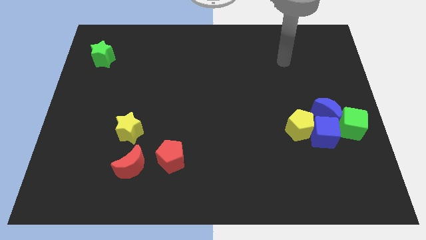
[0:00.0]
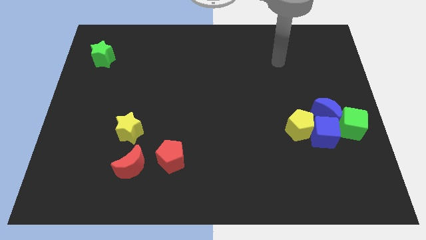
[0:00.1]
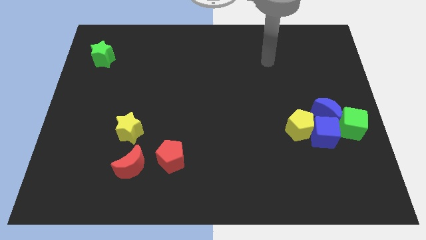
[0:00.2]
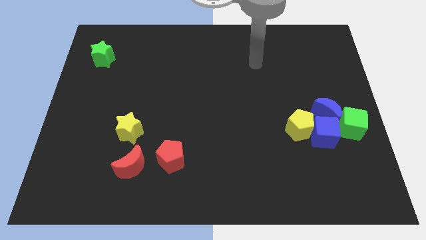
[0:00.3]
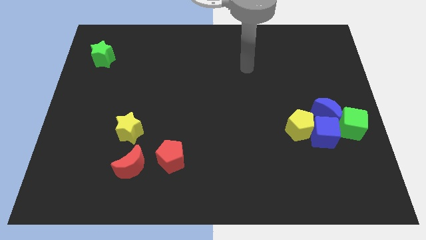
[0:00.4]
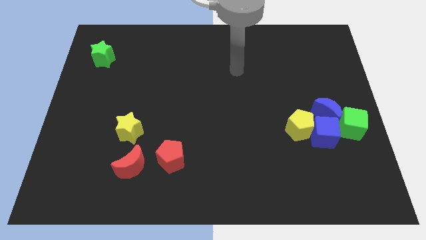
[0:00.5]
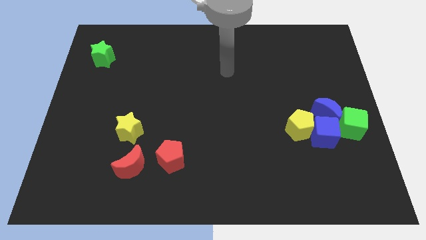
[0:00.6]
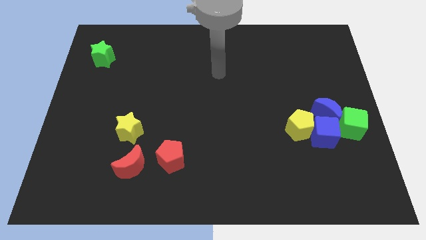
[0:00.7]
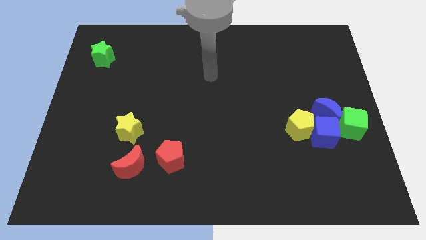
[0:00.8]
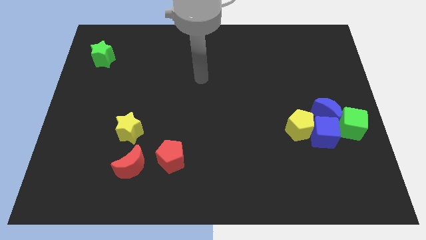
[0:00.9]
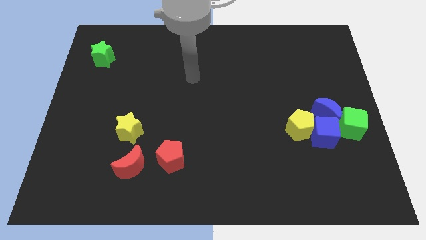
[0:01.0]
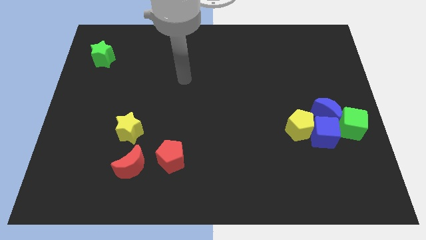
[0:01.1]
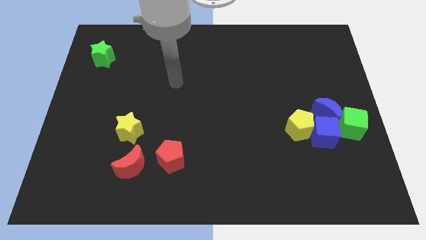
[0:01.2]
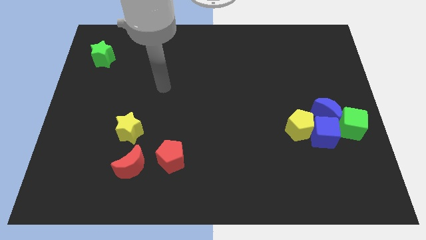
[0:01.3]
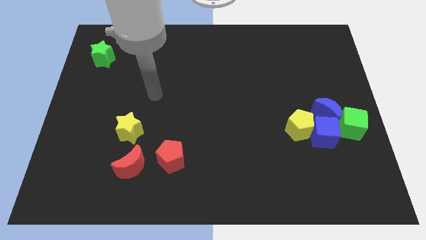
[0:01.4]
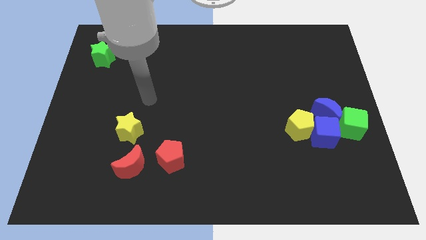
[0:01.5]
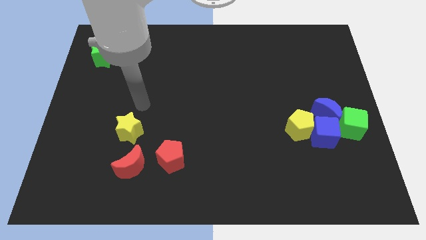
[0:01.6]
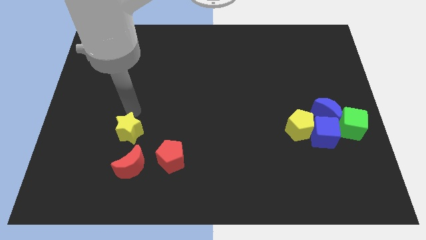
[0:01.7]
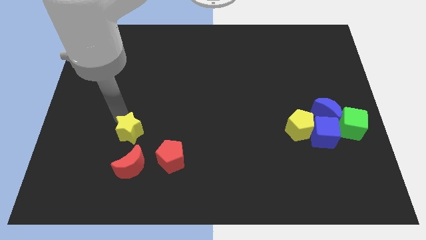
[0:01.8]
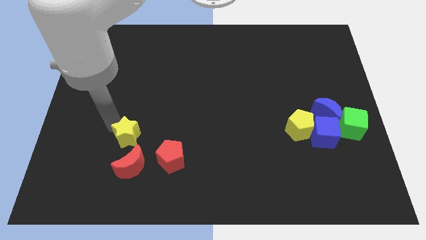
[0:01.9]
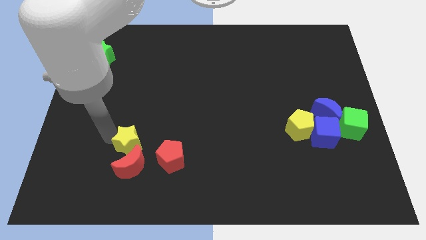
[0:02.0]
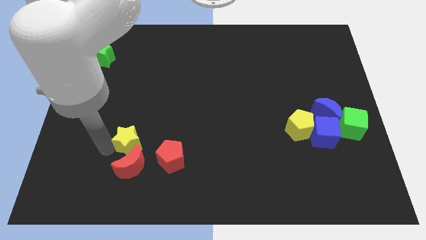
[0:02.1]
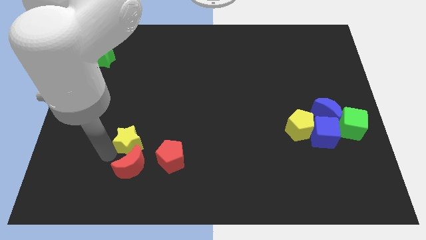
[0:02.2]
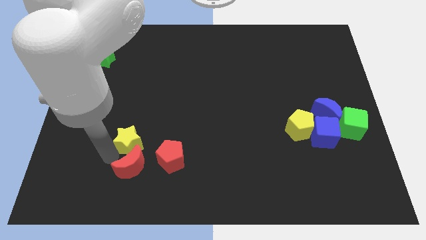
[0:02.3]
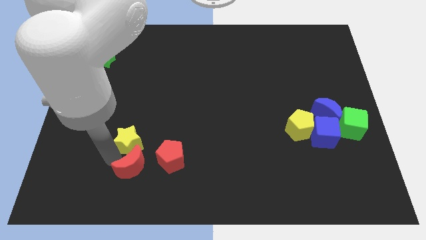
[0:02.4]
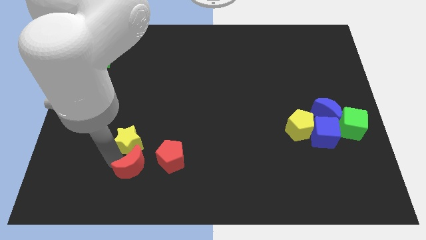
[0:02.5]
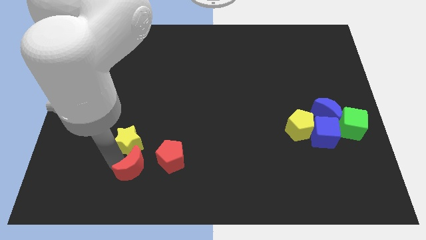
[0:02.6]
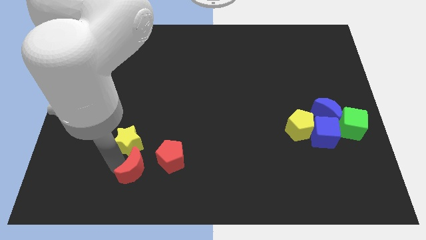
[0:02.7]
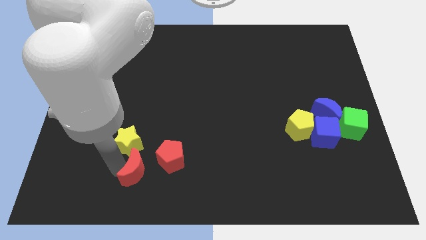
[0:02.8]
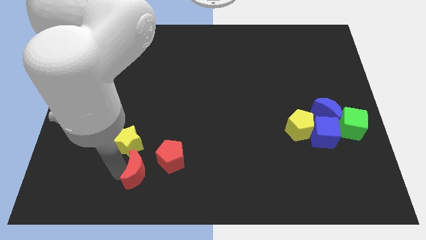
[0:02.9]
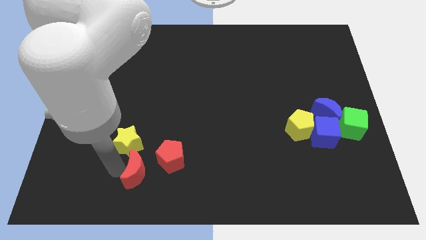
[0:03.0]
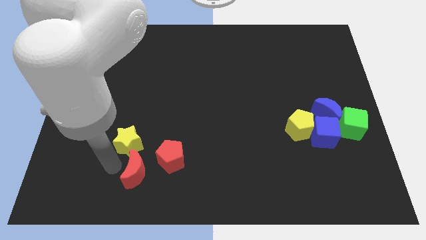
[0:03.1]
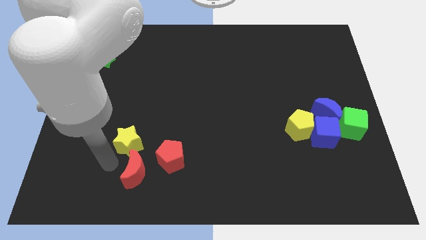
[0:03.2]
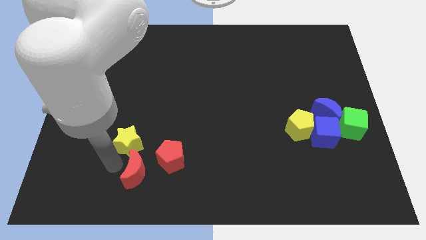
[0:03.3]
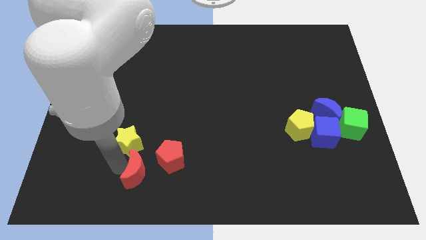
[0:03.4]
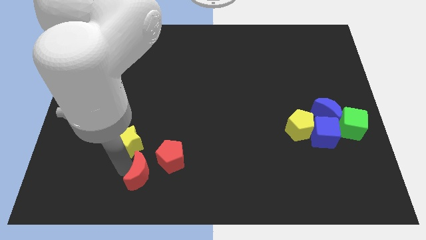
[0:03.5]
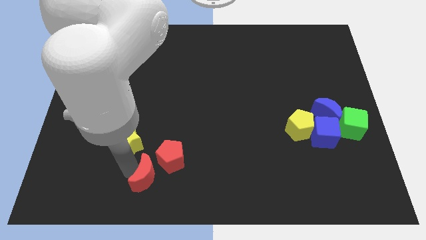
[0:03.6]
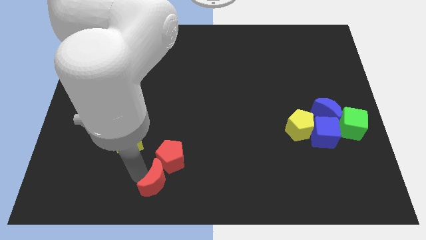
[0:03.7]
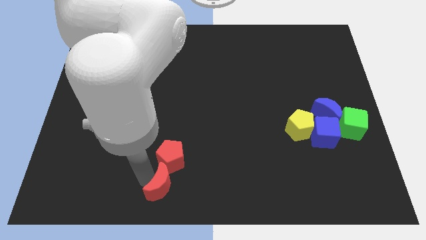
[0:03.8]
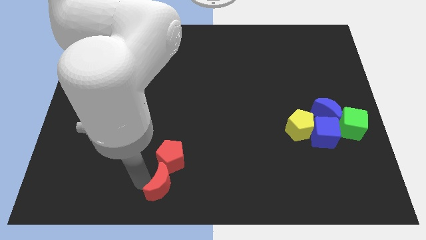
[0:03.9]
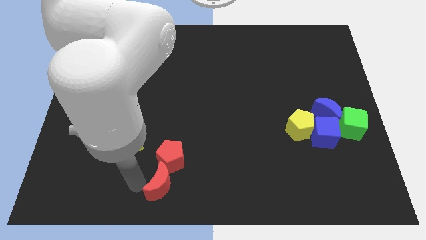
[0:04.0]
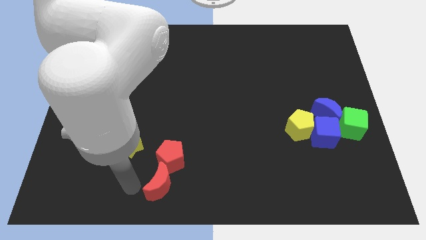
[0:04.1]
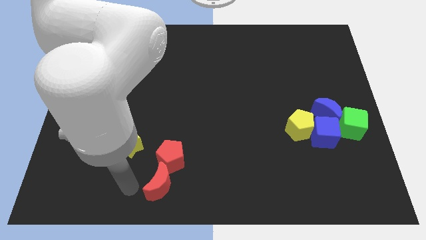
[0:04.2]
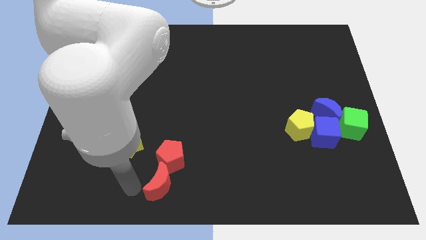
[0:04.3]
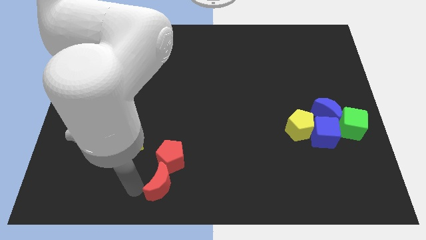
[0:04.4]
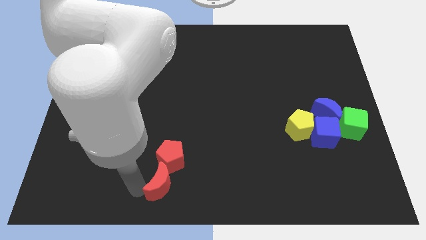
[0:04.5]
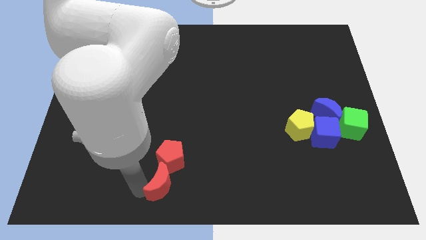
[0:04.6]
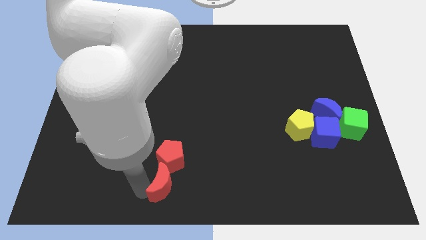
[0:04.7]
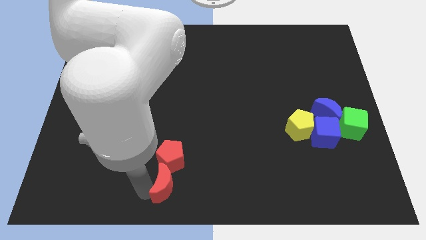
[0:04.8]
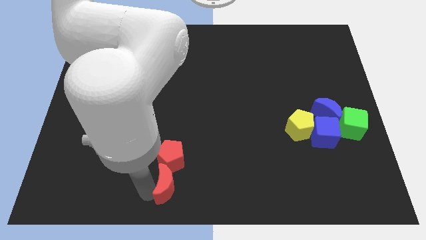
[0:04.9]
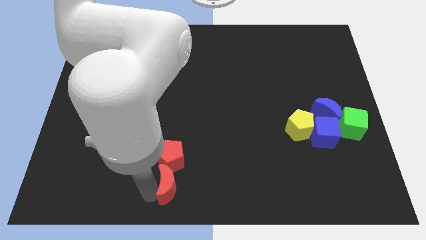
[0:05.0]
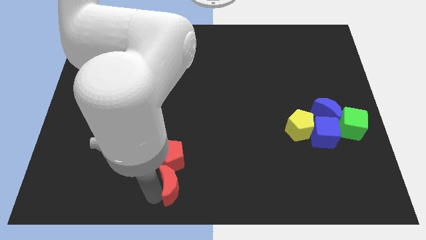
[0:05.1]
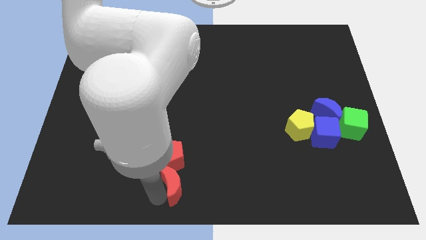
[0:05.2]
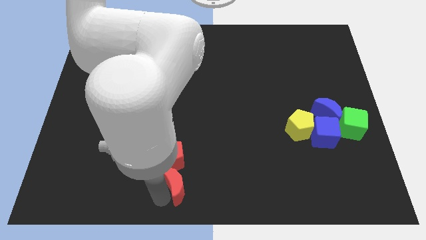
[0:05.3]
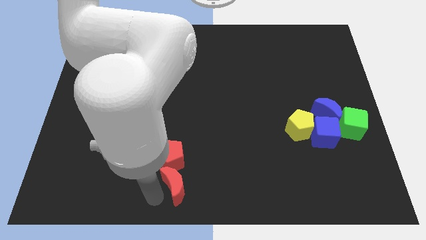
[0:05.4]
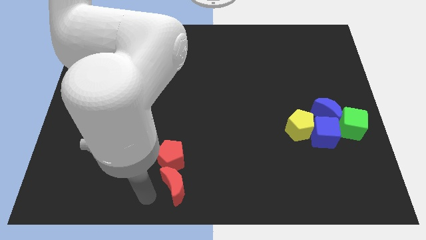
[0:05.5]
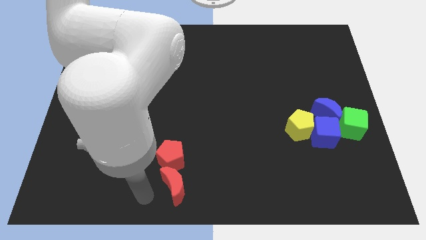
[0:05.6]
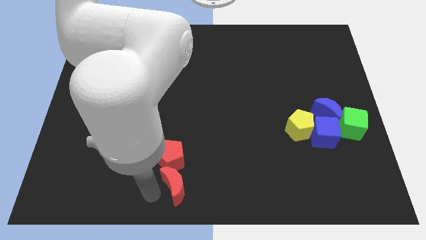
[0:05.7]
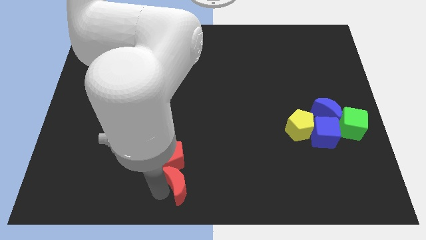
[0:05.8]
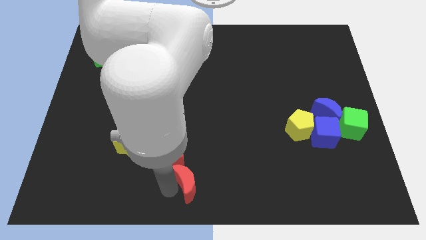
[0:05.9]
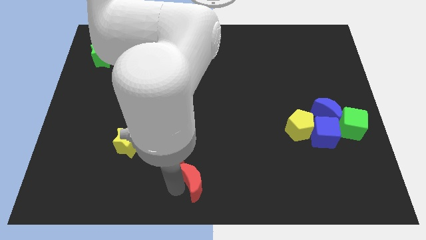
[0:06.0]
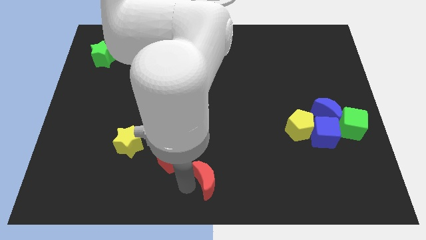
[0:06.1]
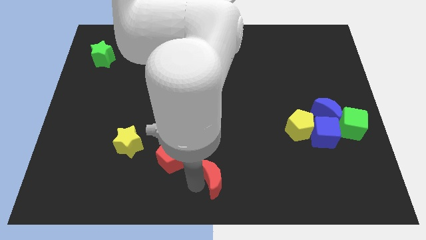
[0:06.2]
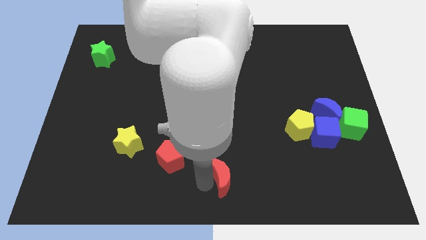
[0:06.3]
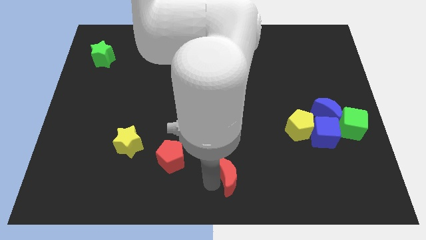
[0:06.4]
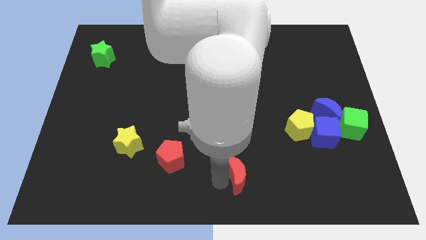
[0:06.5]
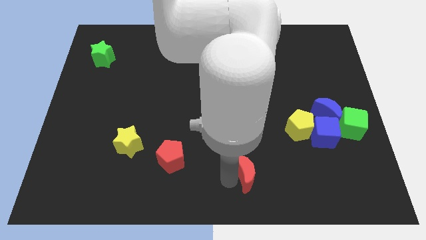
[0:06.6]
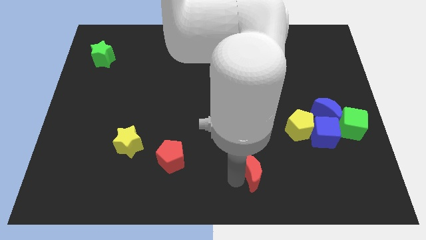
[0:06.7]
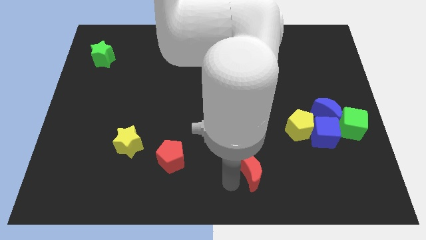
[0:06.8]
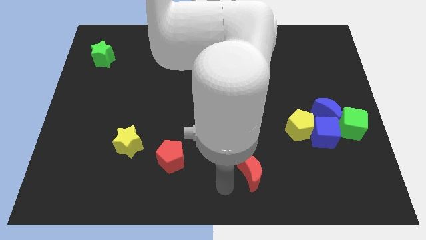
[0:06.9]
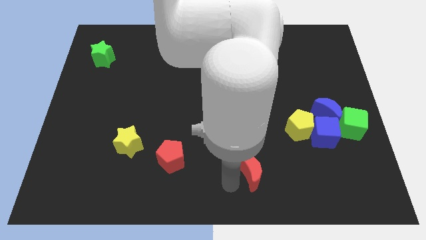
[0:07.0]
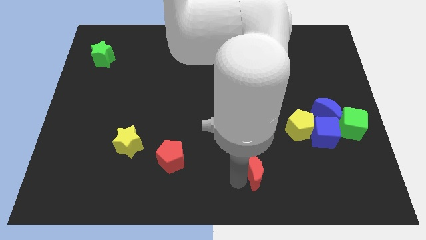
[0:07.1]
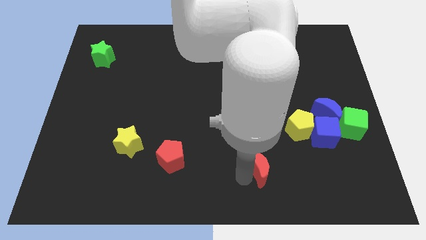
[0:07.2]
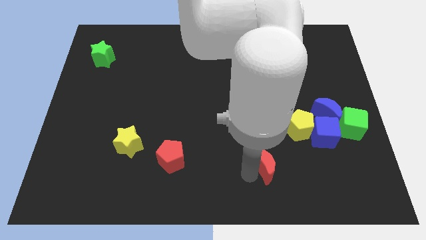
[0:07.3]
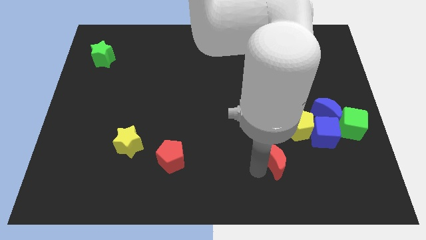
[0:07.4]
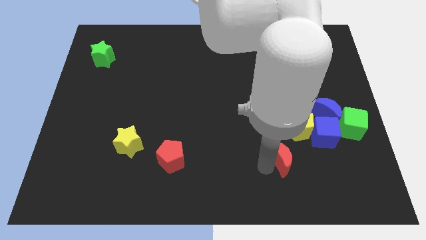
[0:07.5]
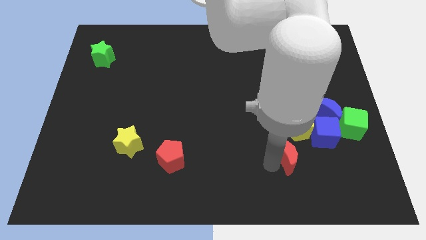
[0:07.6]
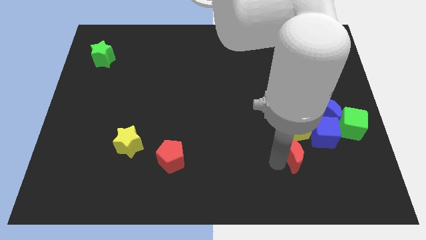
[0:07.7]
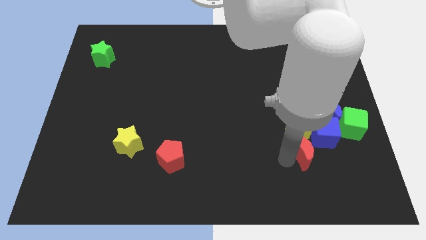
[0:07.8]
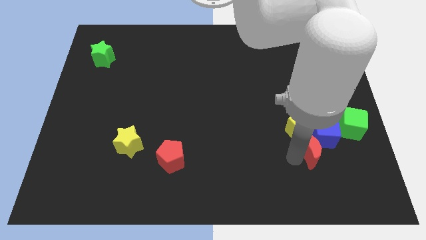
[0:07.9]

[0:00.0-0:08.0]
move the red moon close to the blue cube
